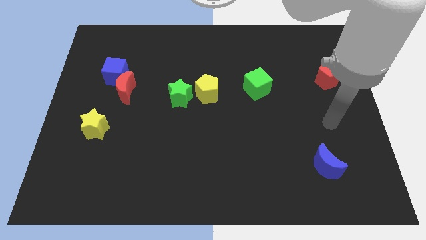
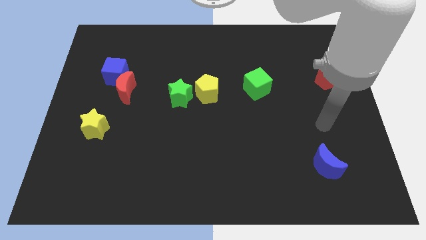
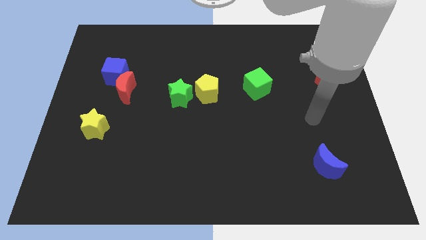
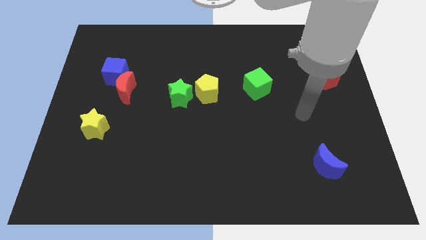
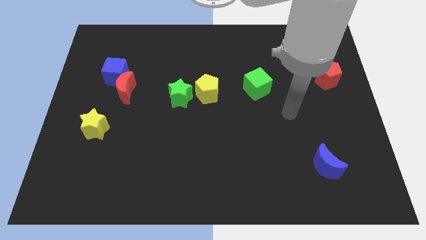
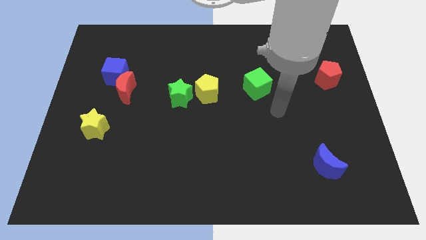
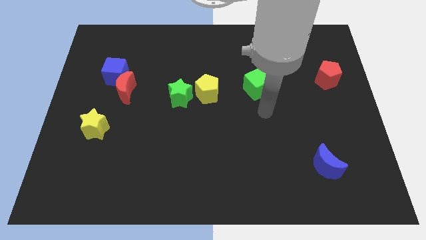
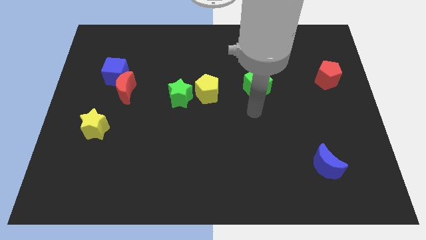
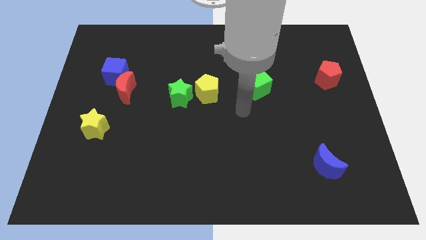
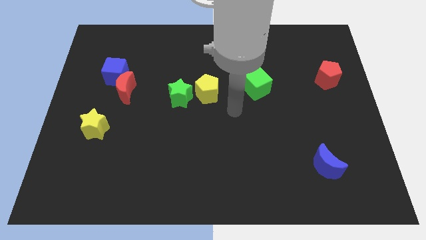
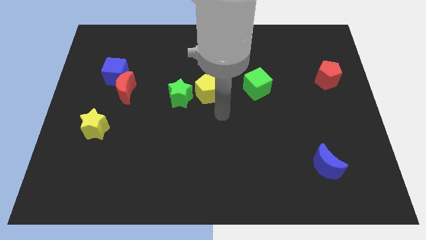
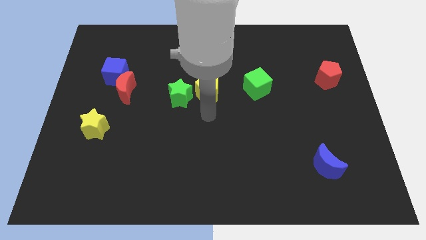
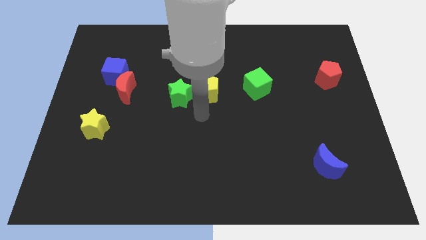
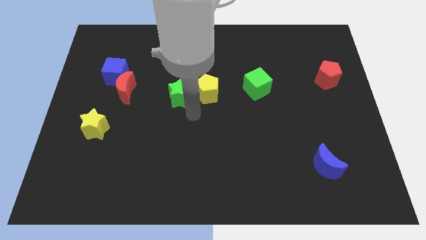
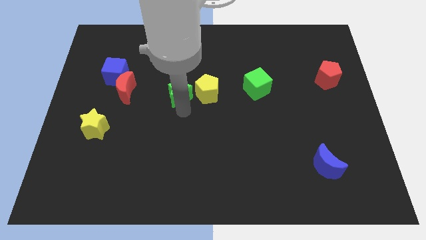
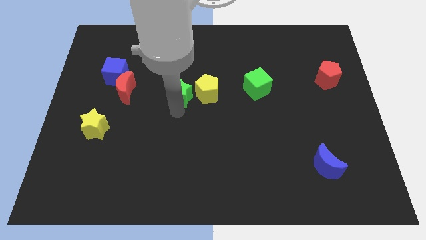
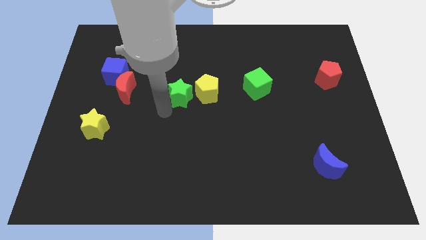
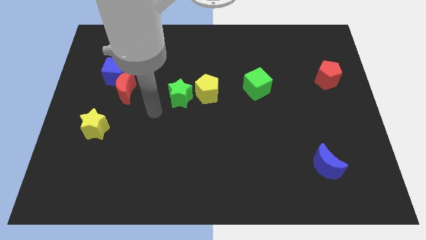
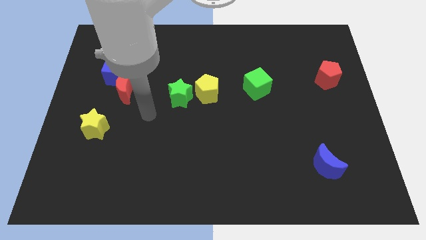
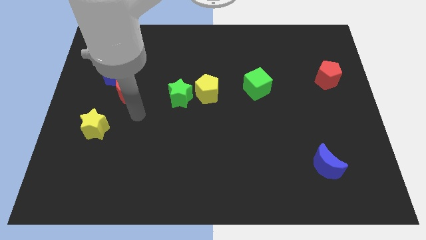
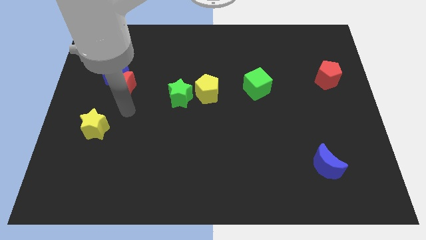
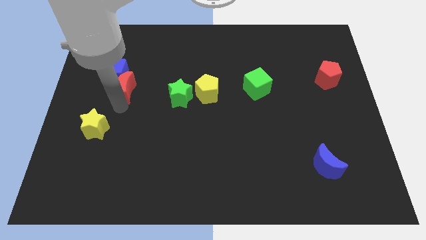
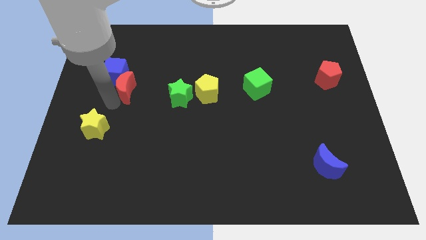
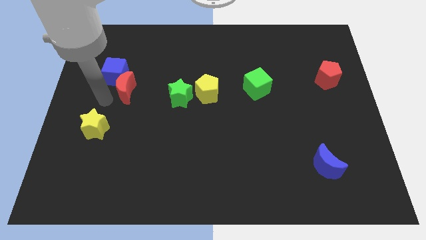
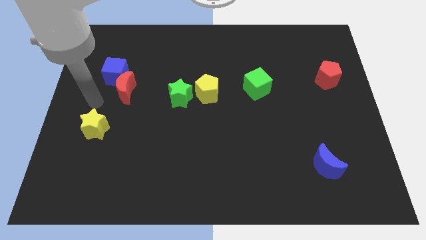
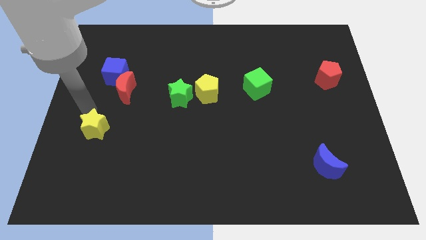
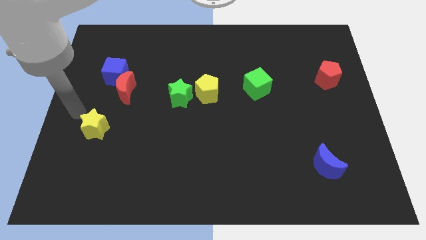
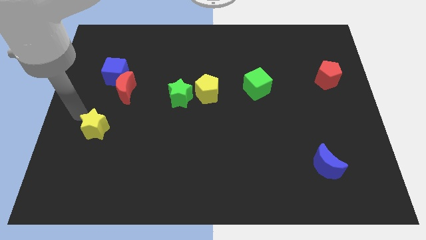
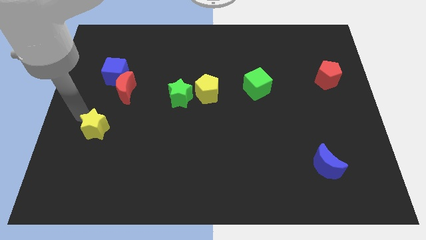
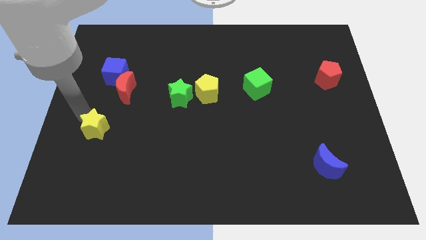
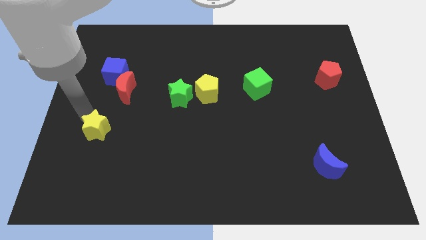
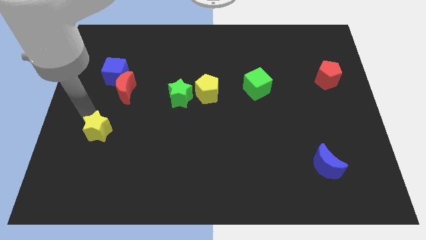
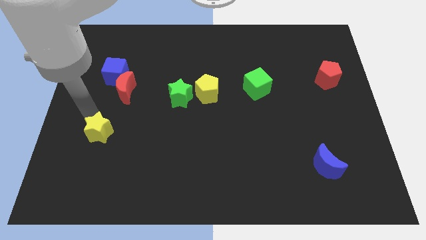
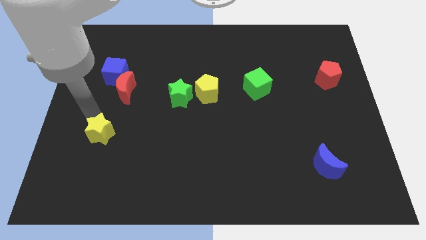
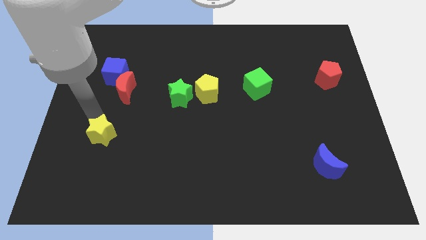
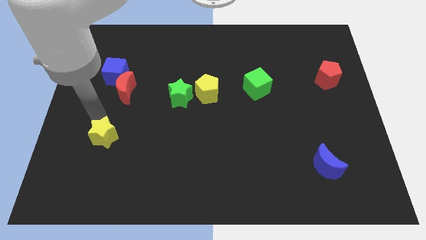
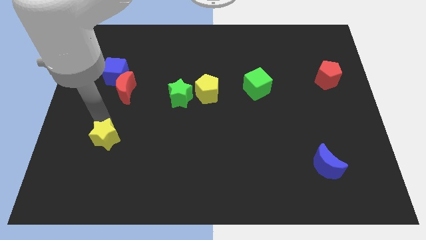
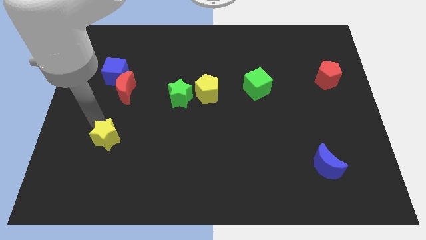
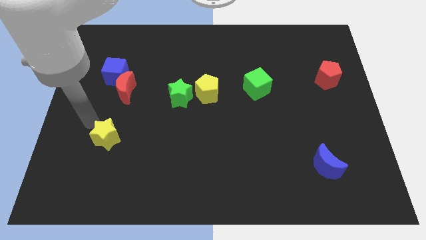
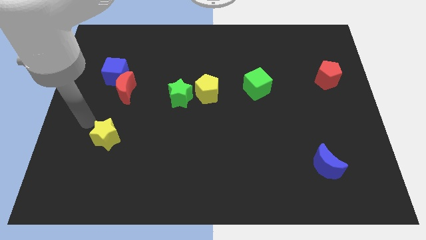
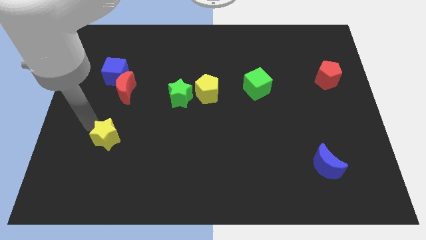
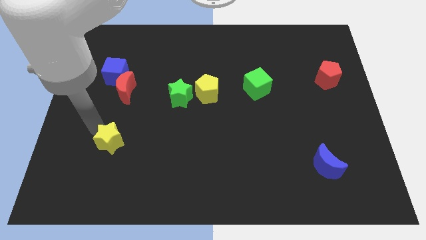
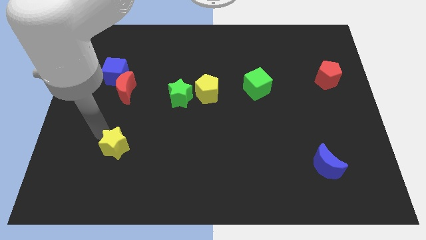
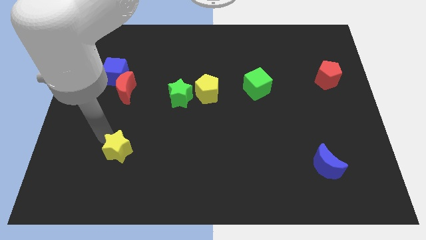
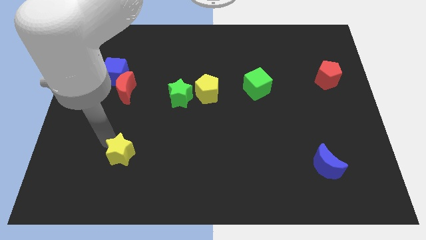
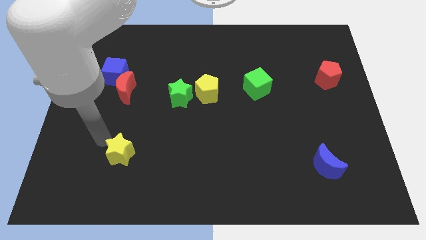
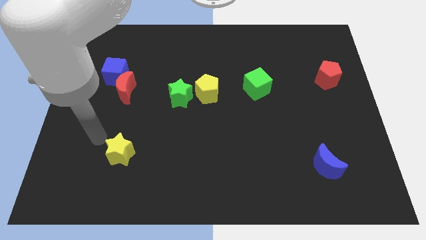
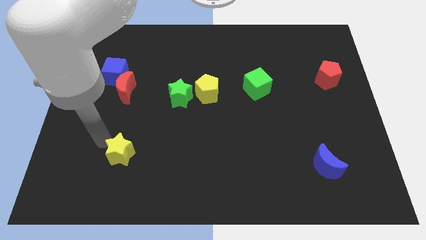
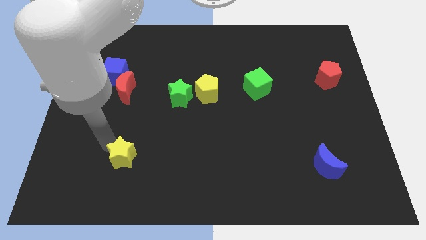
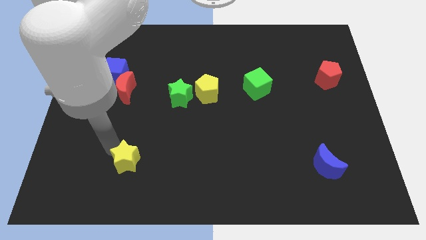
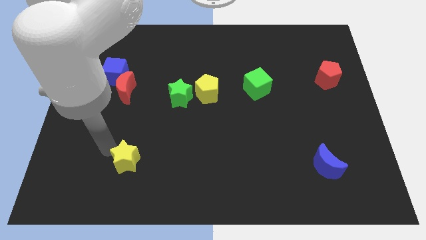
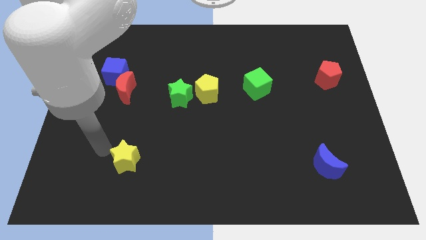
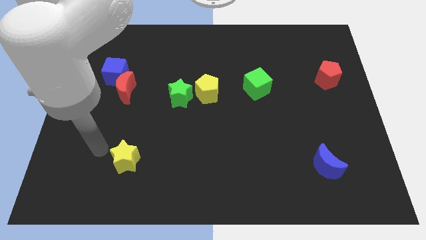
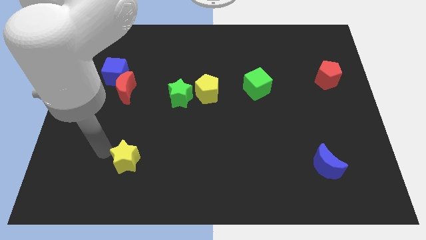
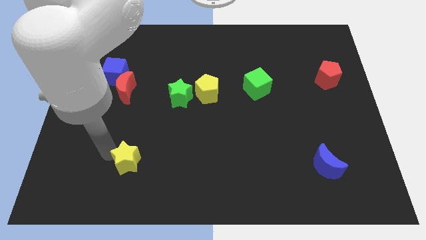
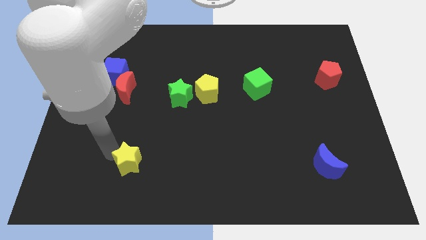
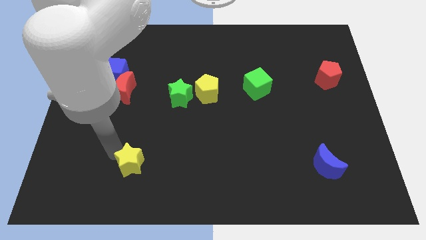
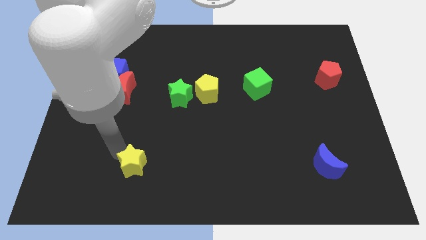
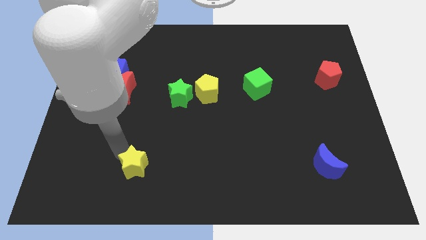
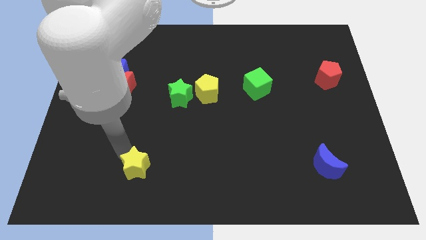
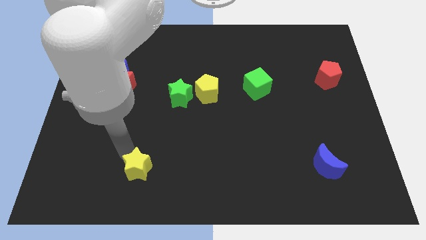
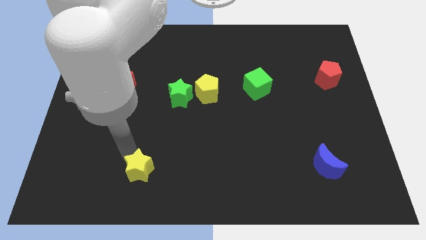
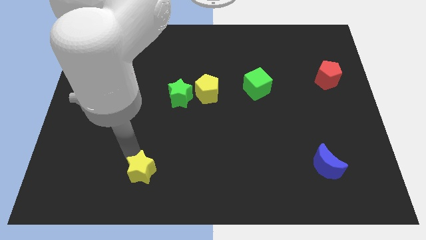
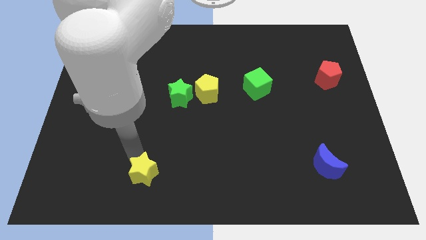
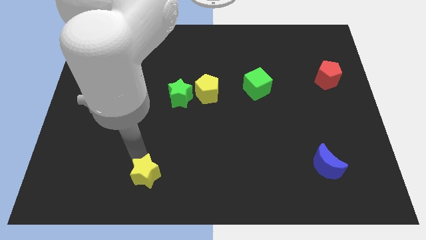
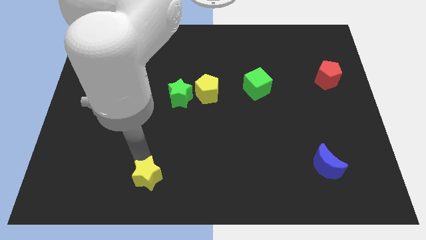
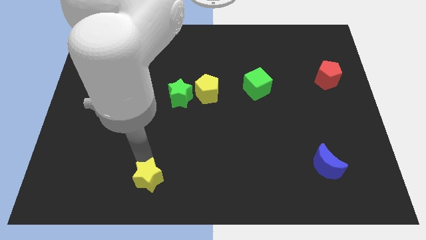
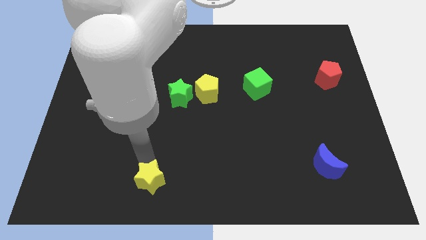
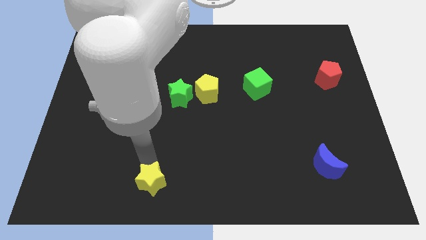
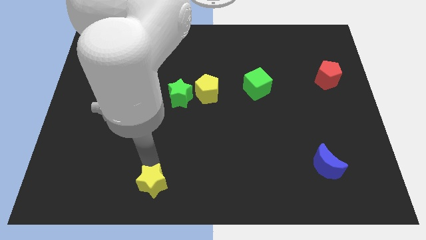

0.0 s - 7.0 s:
move the yellow star to the bottom side
